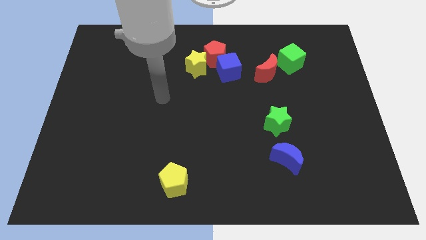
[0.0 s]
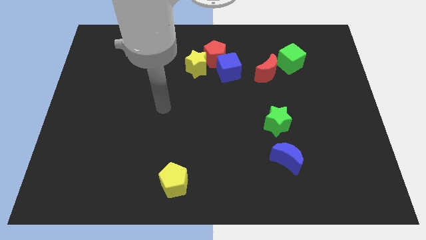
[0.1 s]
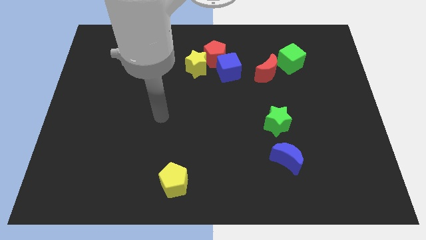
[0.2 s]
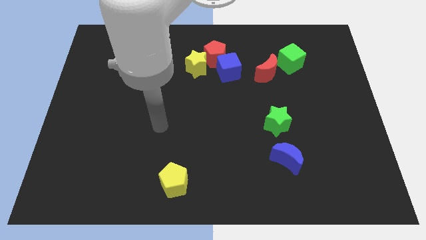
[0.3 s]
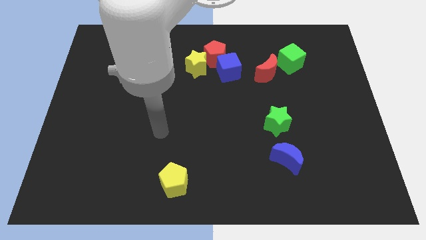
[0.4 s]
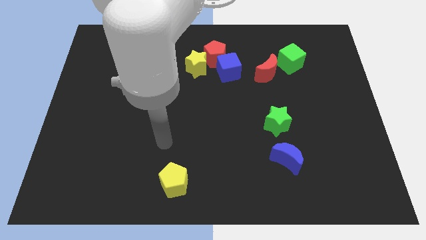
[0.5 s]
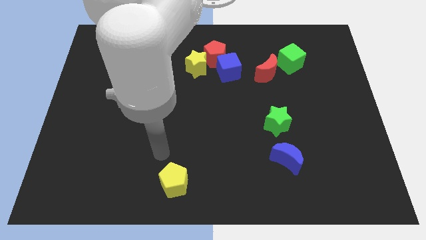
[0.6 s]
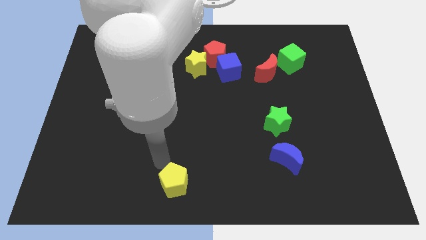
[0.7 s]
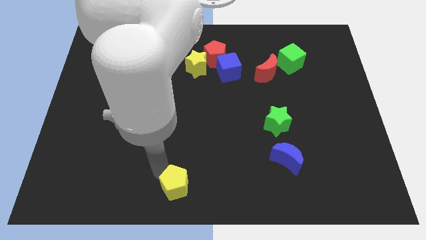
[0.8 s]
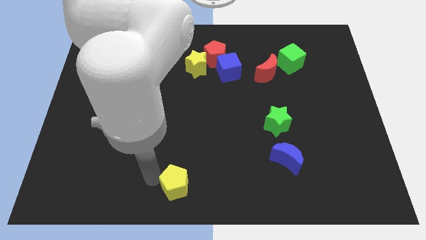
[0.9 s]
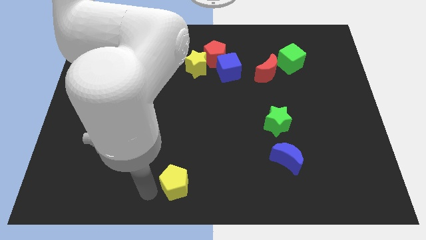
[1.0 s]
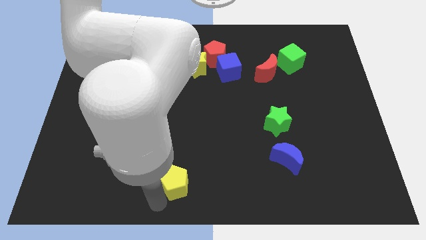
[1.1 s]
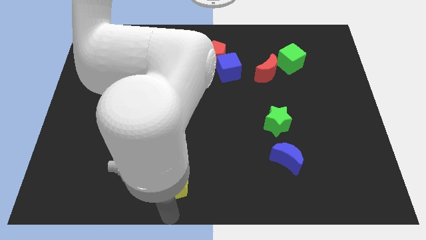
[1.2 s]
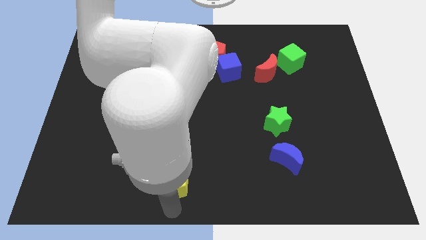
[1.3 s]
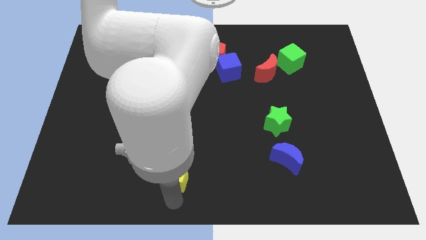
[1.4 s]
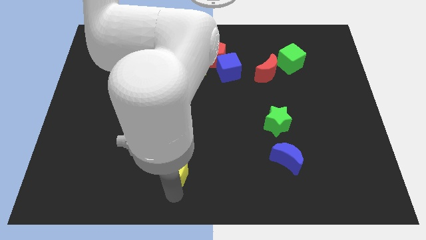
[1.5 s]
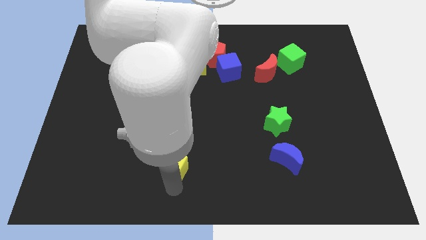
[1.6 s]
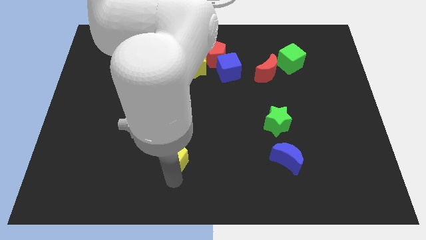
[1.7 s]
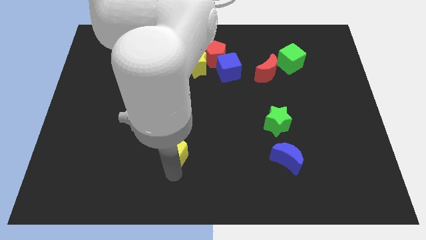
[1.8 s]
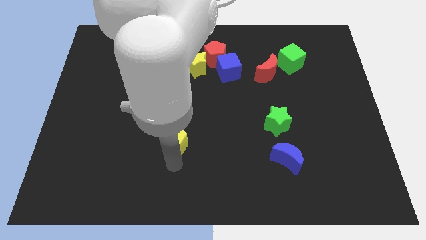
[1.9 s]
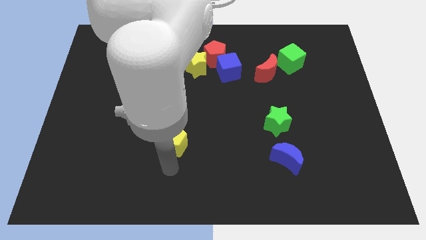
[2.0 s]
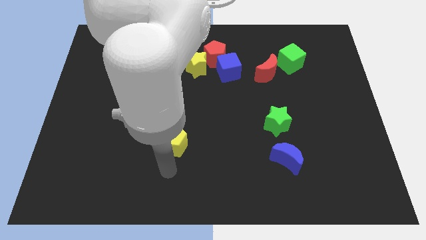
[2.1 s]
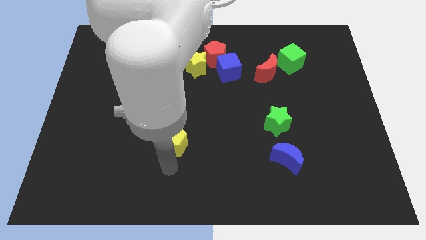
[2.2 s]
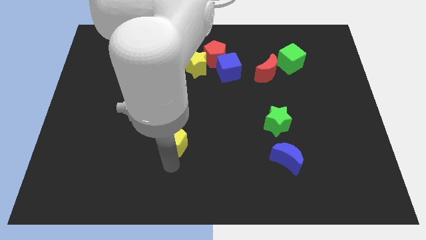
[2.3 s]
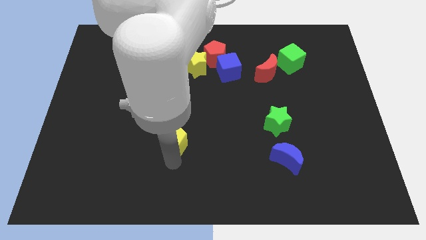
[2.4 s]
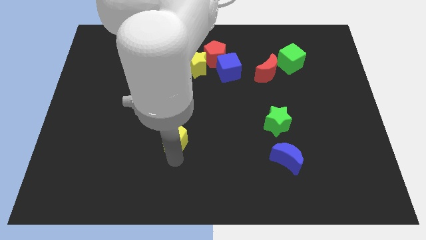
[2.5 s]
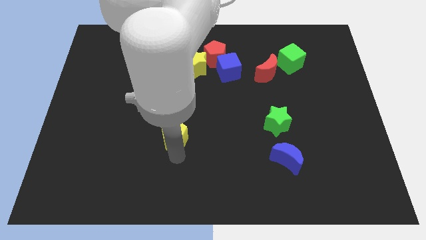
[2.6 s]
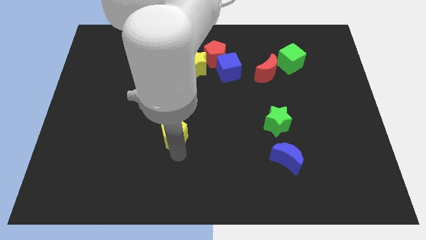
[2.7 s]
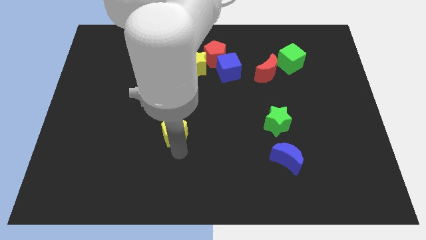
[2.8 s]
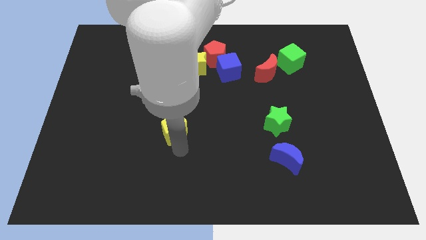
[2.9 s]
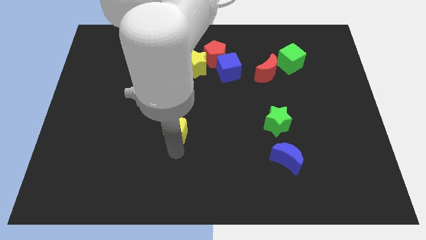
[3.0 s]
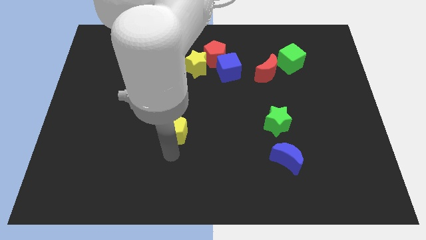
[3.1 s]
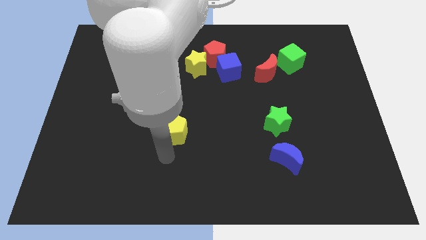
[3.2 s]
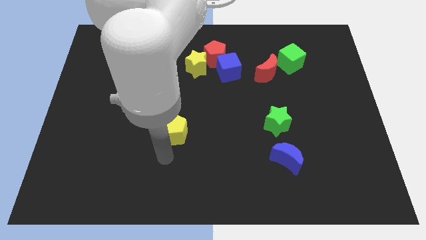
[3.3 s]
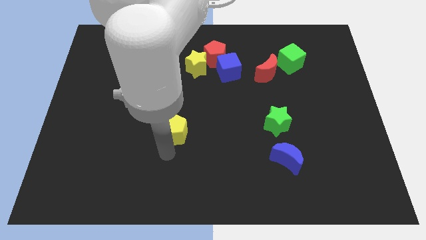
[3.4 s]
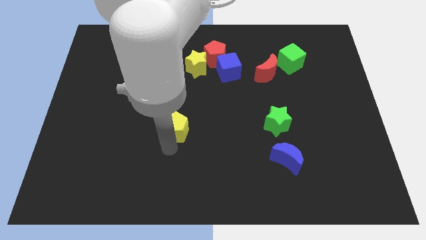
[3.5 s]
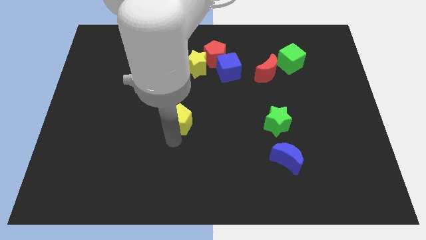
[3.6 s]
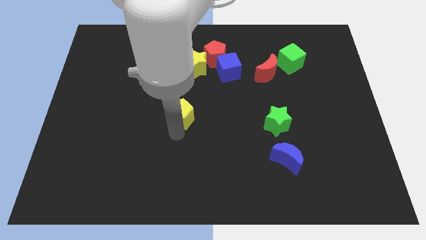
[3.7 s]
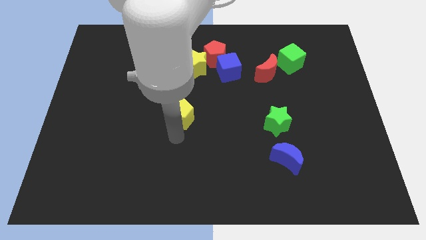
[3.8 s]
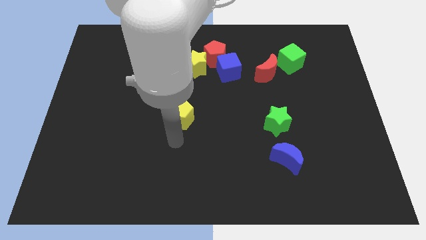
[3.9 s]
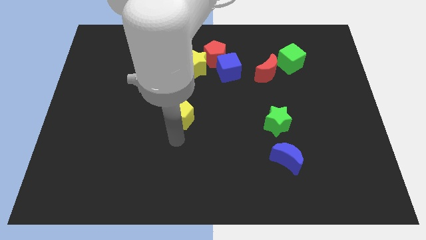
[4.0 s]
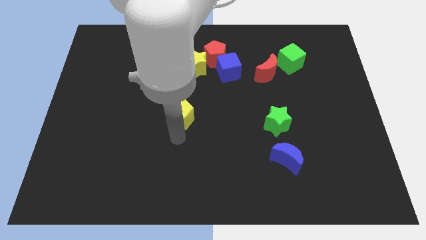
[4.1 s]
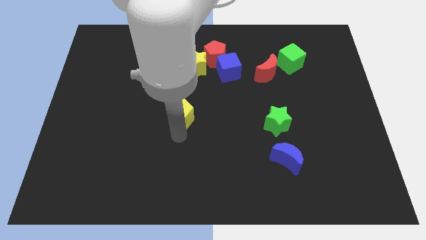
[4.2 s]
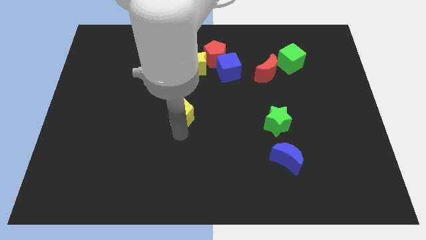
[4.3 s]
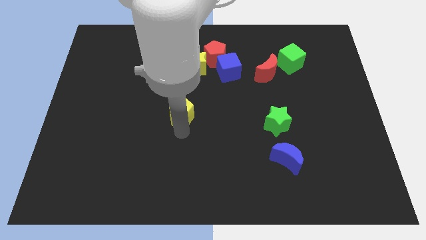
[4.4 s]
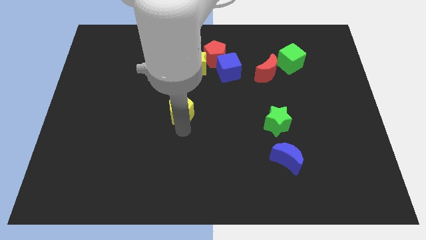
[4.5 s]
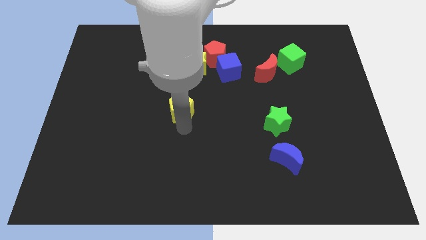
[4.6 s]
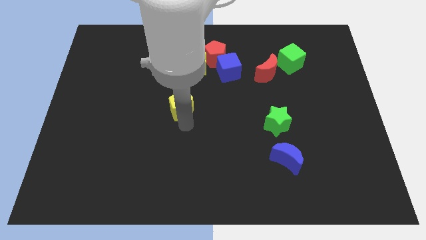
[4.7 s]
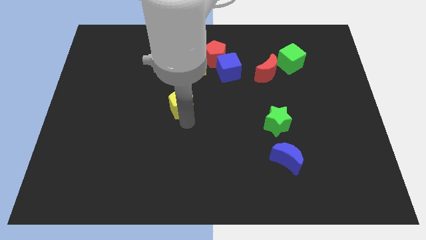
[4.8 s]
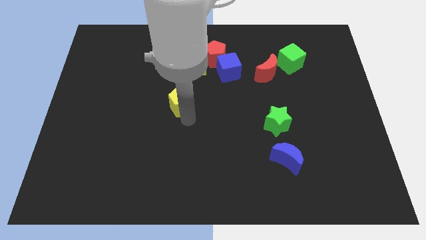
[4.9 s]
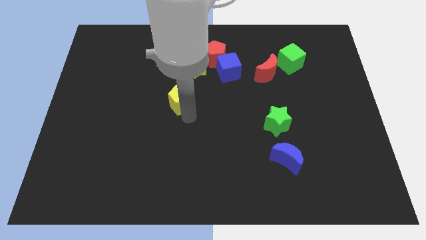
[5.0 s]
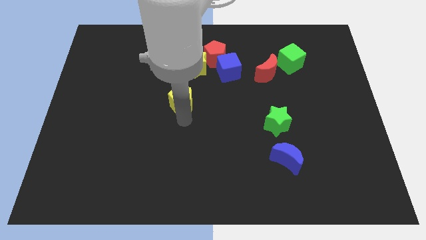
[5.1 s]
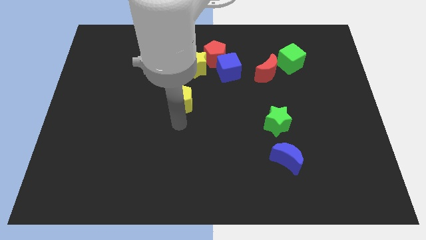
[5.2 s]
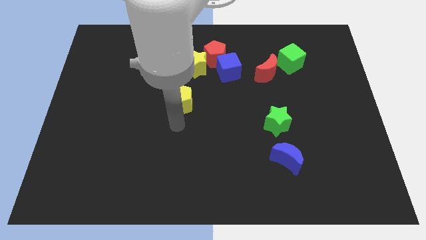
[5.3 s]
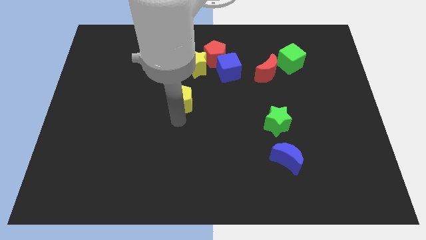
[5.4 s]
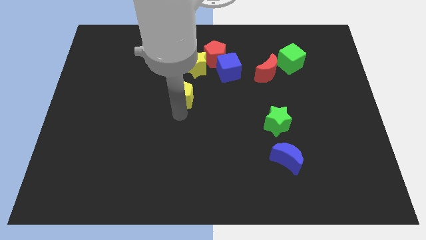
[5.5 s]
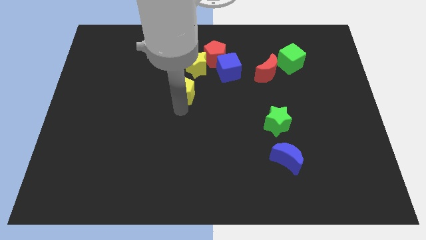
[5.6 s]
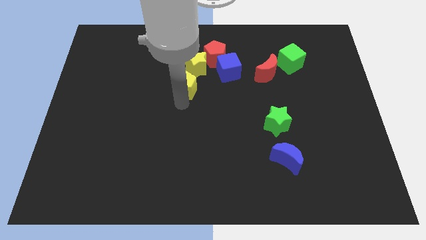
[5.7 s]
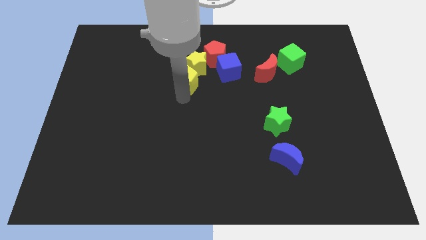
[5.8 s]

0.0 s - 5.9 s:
put the yellow pentagon diagonally down and to the left of the red pentagon

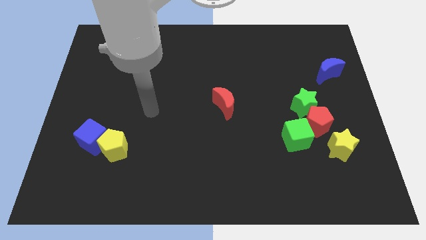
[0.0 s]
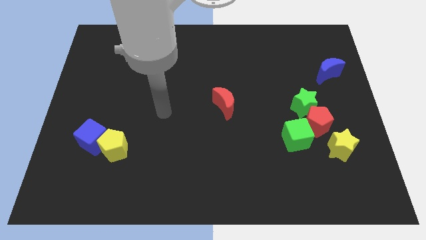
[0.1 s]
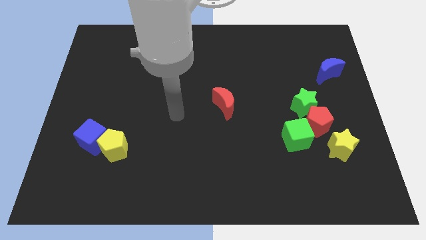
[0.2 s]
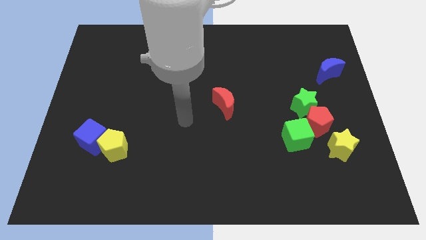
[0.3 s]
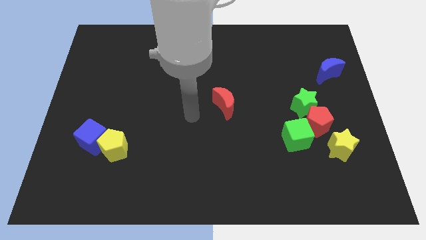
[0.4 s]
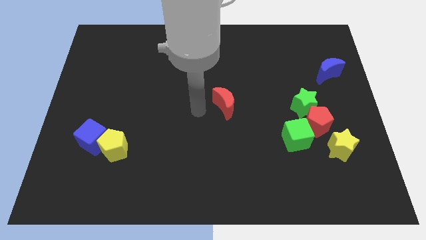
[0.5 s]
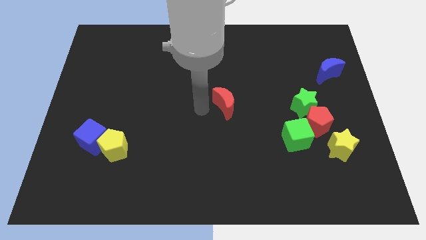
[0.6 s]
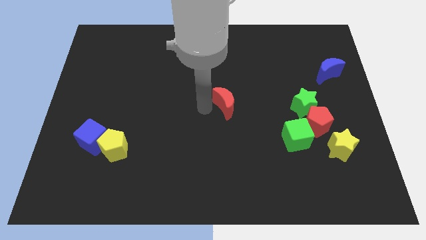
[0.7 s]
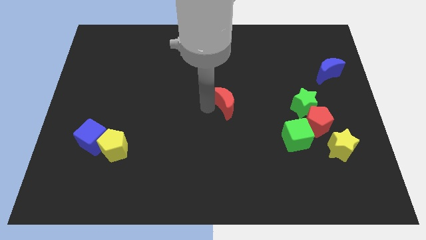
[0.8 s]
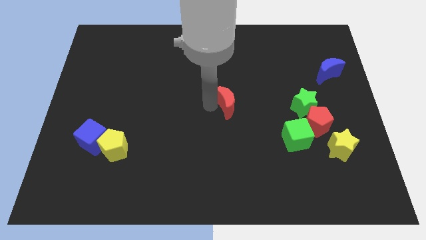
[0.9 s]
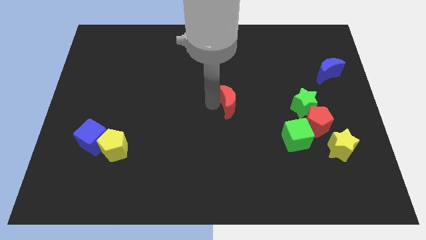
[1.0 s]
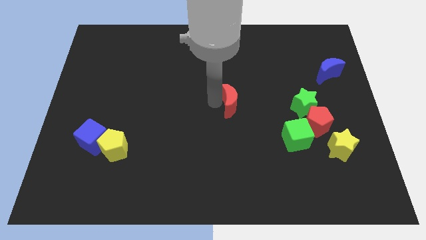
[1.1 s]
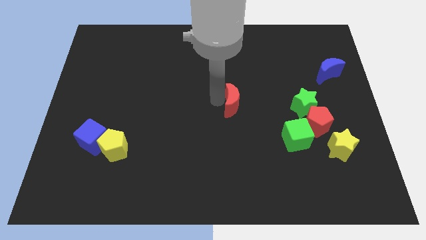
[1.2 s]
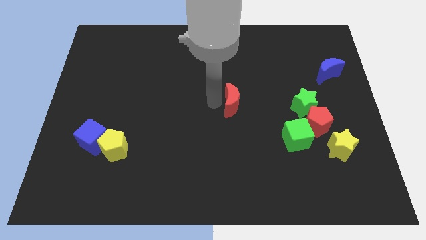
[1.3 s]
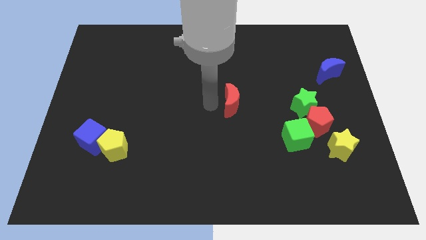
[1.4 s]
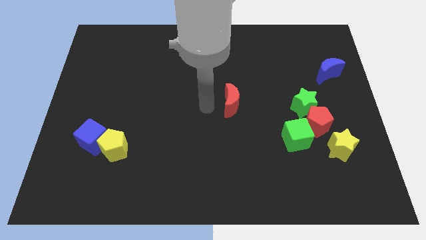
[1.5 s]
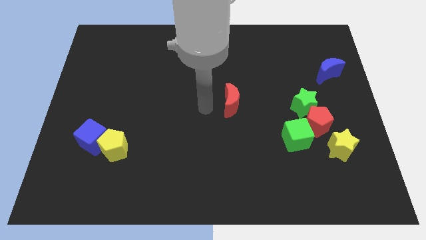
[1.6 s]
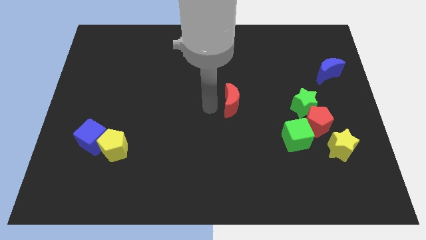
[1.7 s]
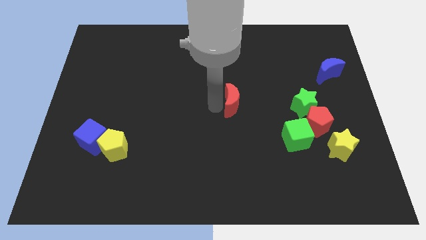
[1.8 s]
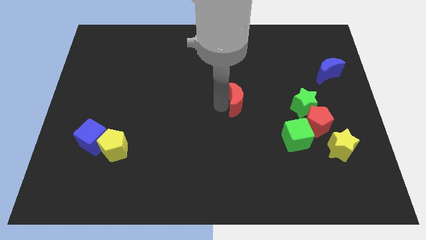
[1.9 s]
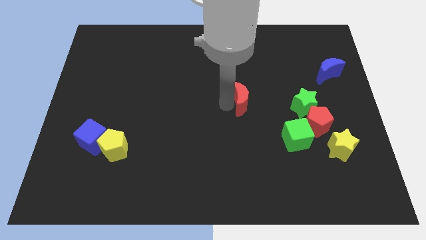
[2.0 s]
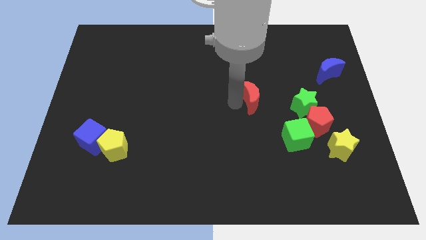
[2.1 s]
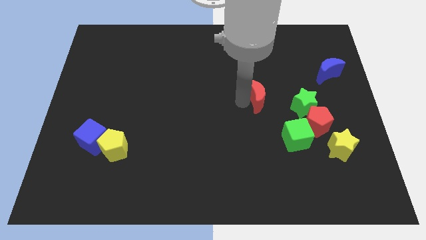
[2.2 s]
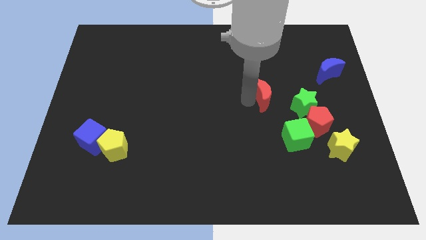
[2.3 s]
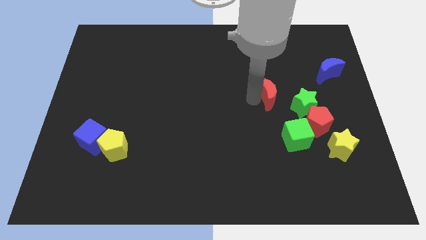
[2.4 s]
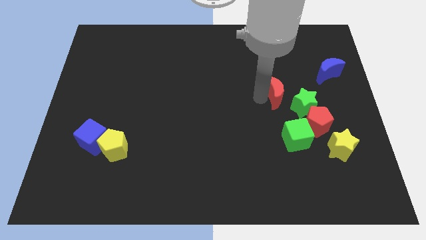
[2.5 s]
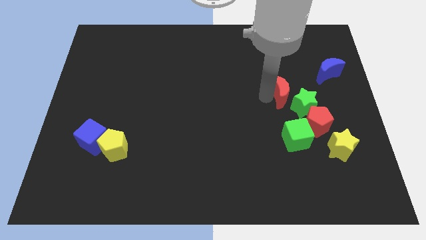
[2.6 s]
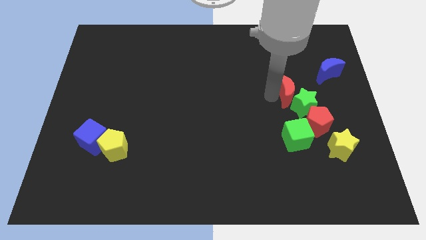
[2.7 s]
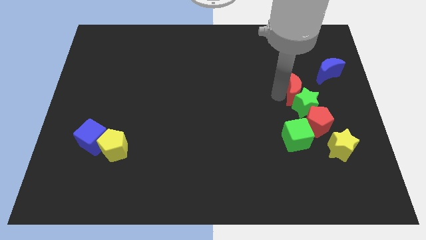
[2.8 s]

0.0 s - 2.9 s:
slide the red moon to the top of the red pentagon
